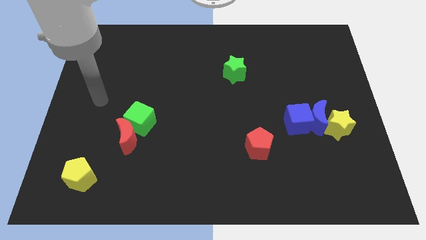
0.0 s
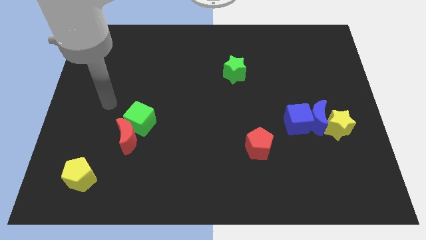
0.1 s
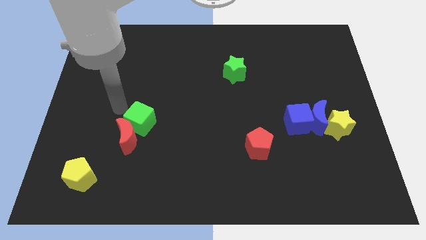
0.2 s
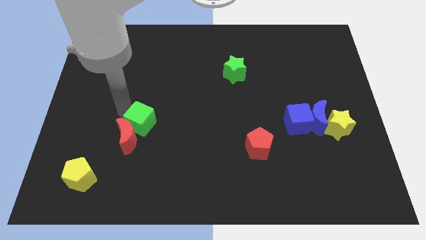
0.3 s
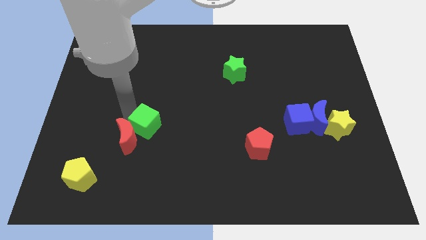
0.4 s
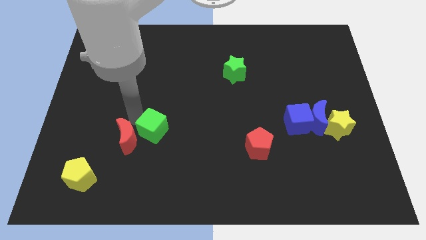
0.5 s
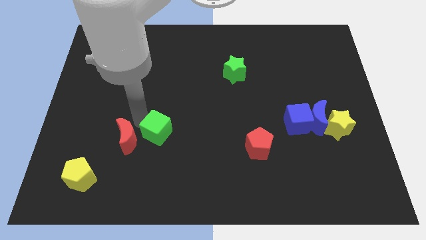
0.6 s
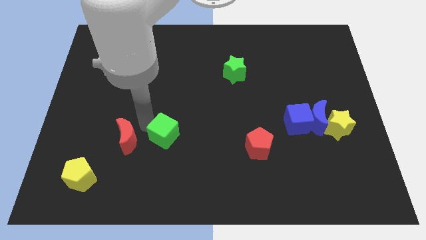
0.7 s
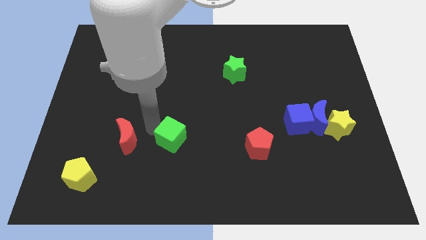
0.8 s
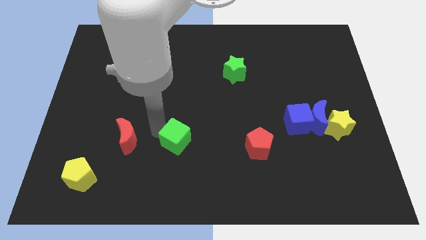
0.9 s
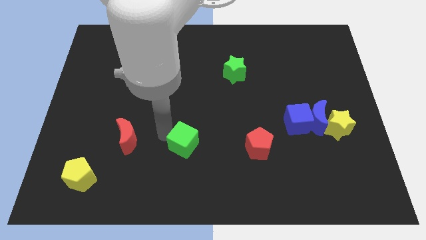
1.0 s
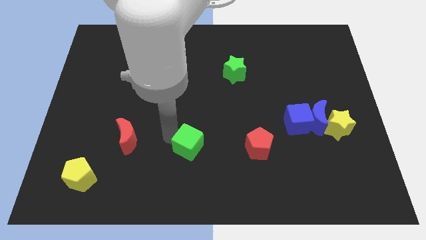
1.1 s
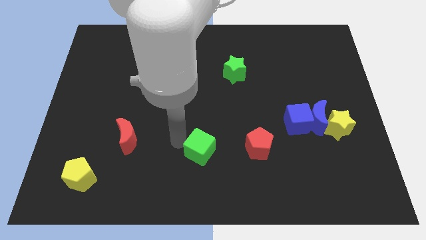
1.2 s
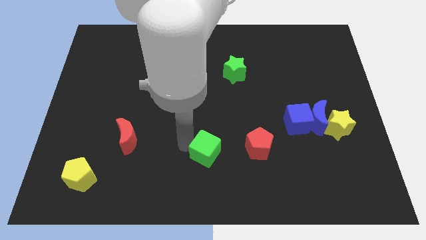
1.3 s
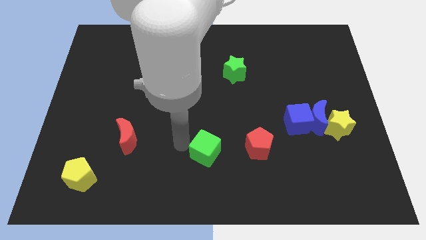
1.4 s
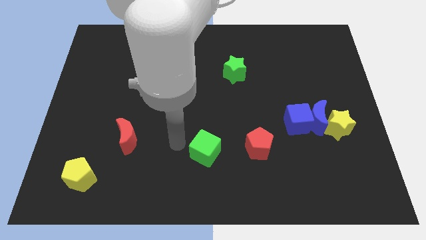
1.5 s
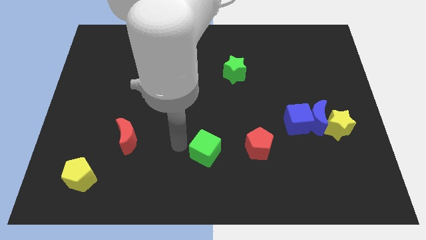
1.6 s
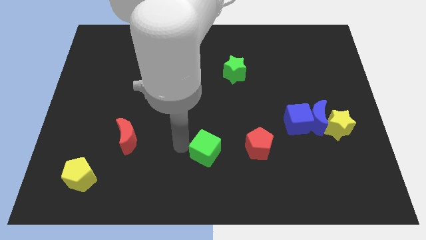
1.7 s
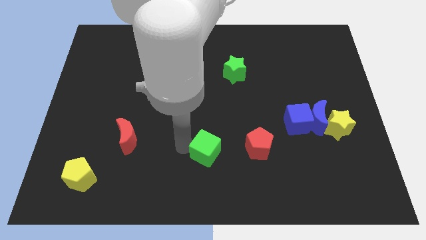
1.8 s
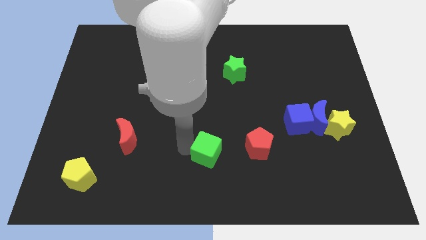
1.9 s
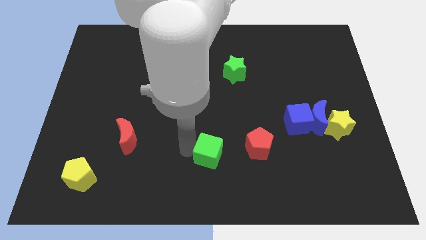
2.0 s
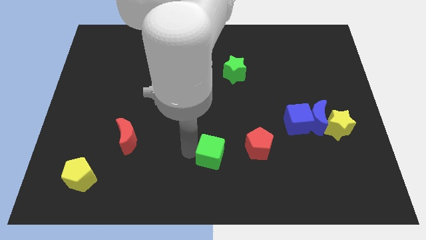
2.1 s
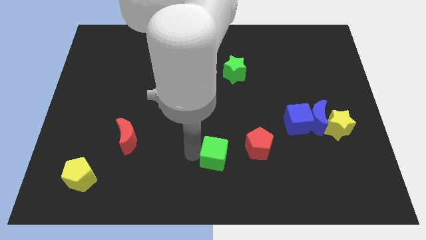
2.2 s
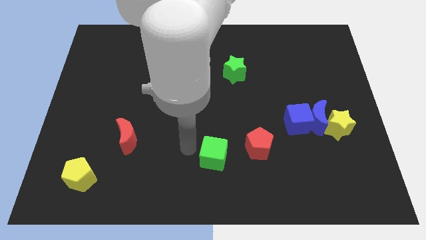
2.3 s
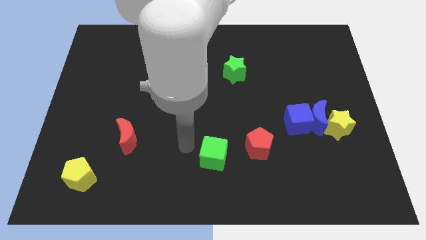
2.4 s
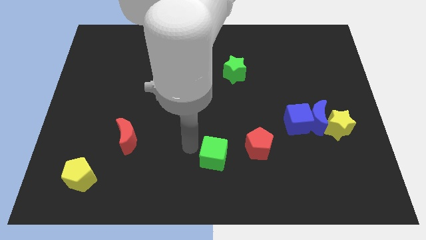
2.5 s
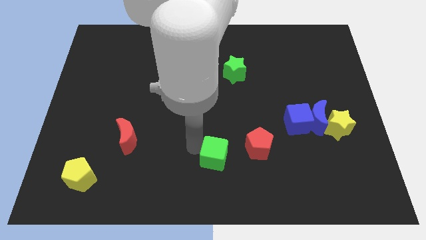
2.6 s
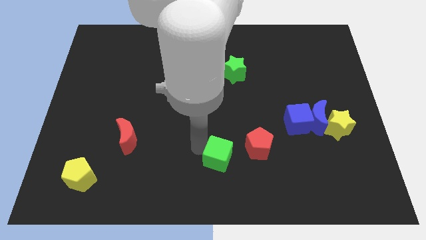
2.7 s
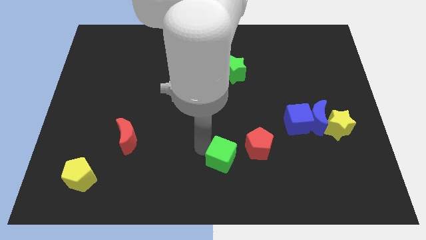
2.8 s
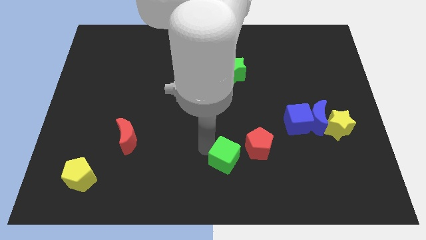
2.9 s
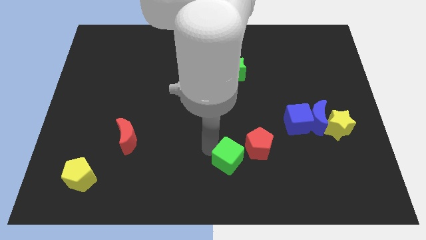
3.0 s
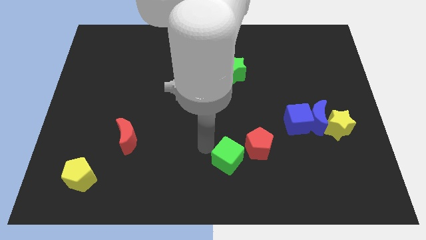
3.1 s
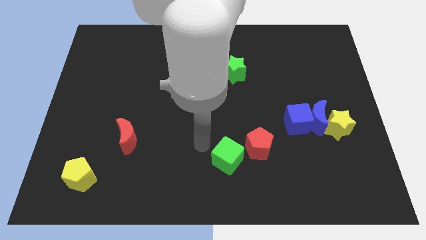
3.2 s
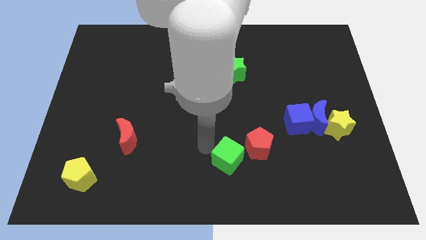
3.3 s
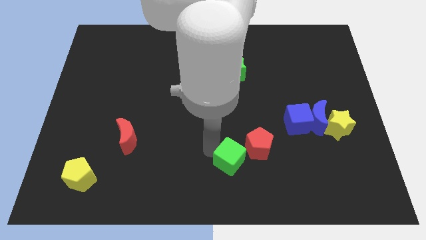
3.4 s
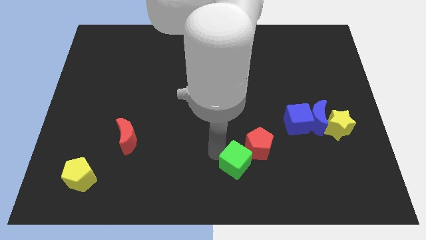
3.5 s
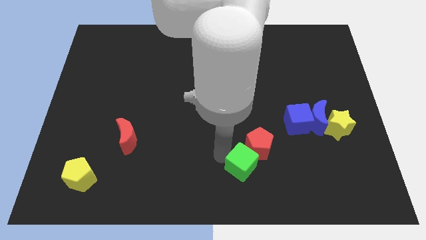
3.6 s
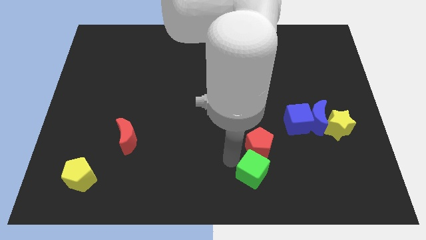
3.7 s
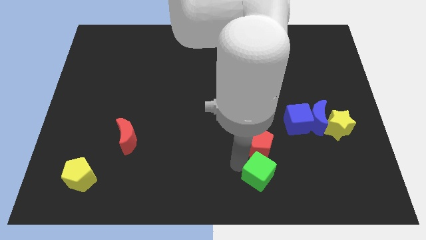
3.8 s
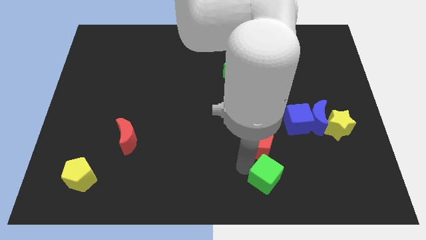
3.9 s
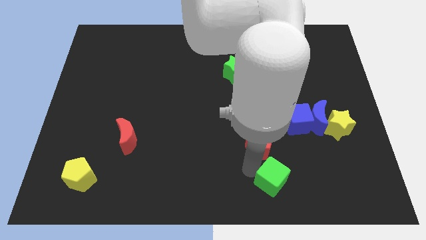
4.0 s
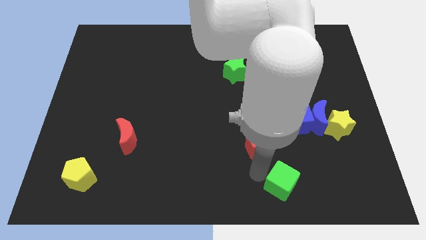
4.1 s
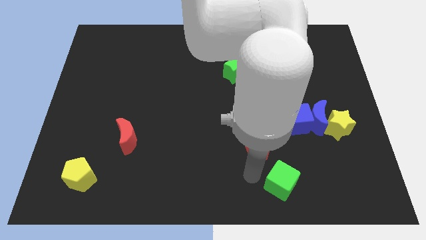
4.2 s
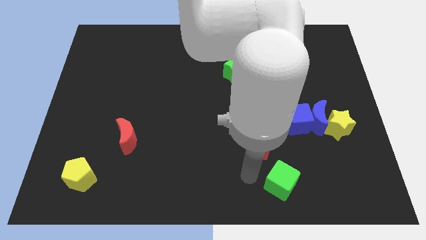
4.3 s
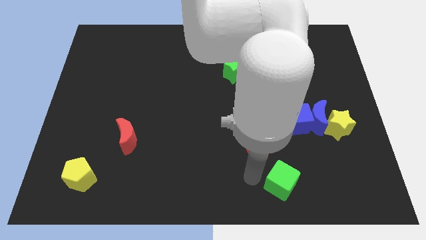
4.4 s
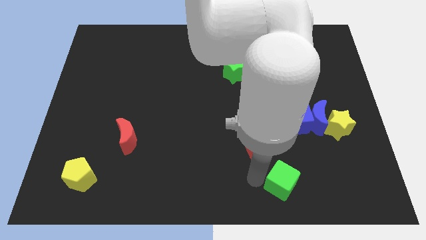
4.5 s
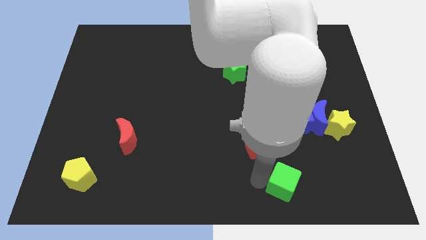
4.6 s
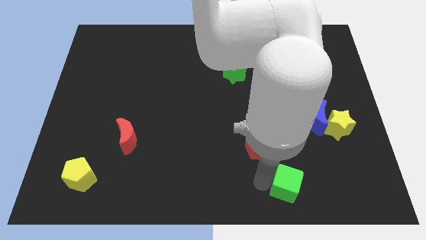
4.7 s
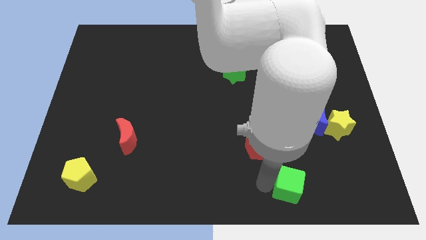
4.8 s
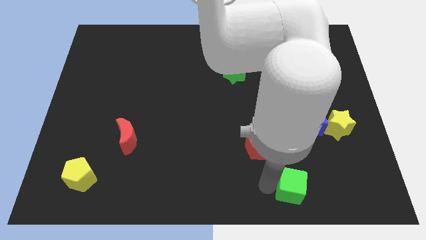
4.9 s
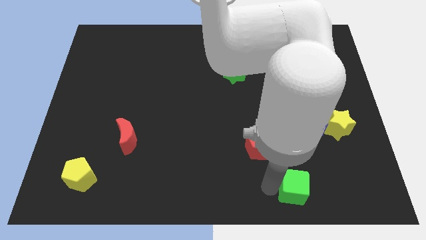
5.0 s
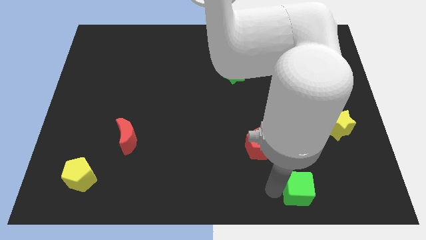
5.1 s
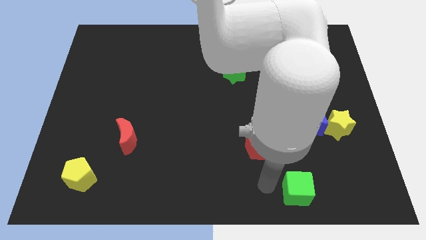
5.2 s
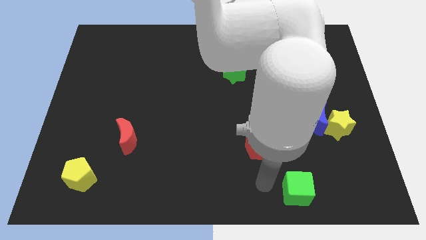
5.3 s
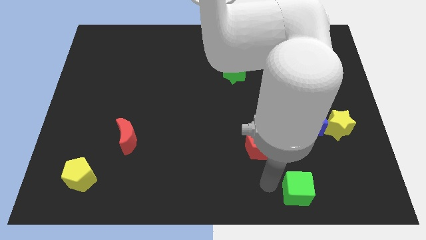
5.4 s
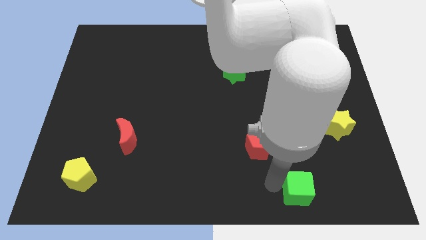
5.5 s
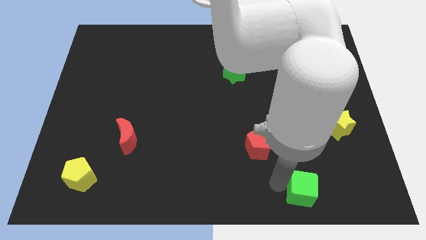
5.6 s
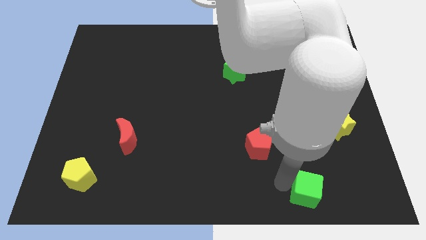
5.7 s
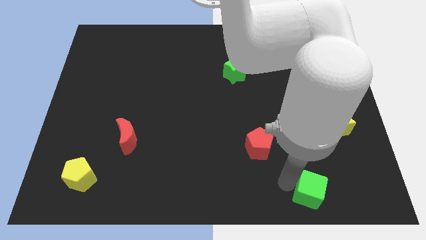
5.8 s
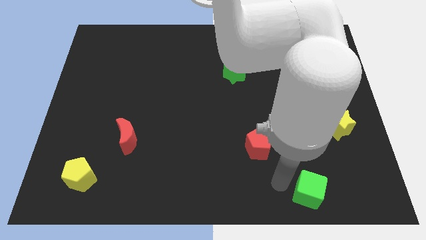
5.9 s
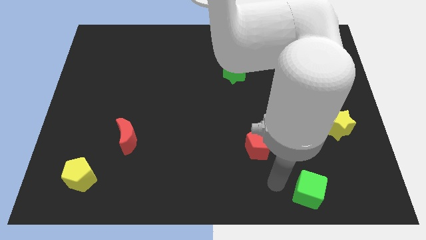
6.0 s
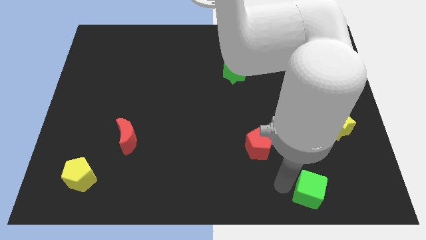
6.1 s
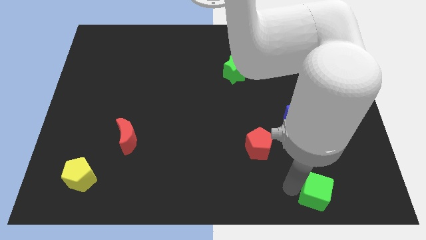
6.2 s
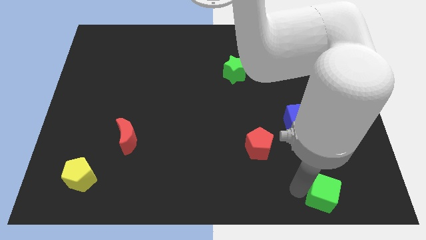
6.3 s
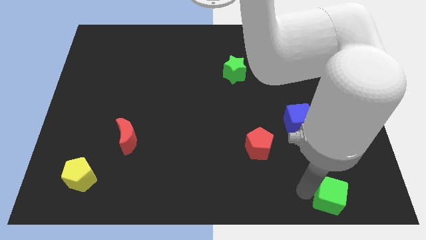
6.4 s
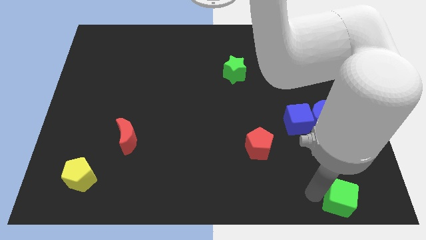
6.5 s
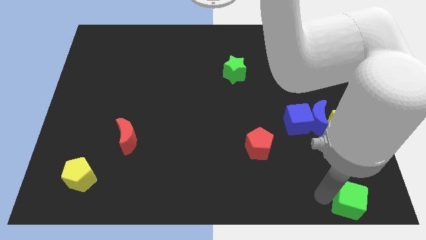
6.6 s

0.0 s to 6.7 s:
slide the green cube to the bottom right

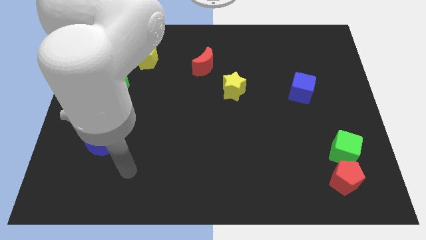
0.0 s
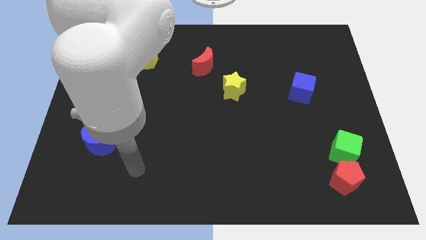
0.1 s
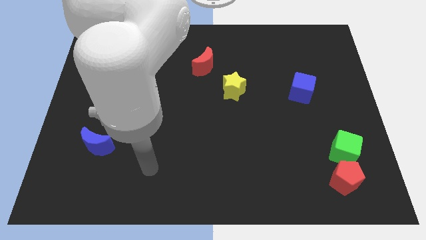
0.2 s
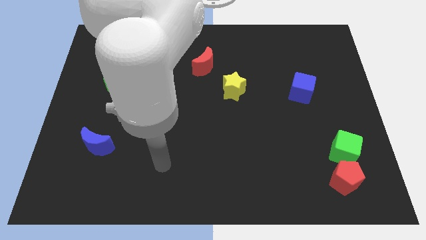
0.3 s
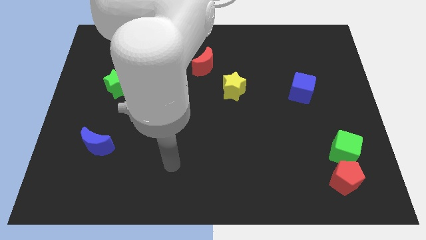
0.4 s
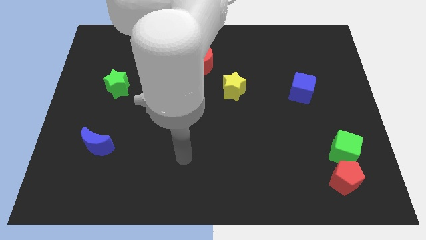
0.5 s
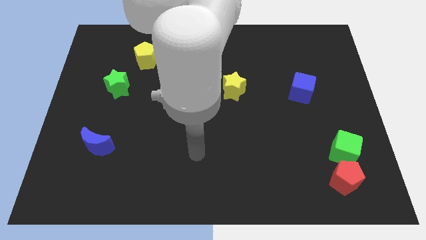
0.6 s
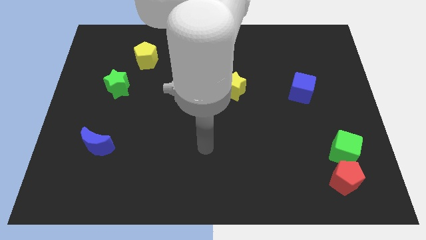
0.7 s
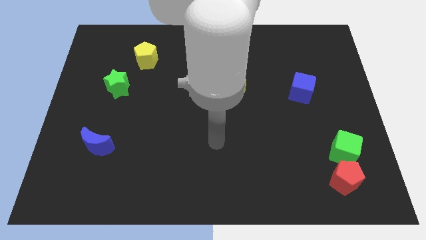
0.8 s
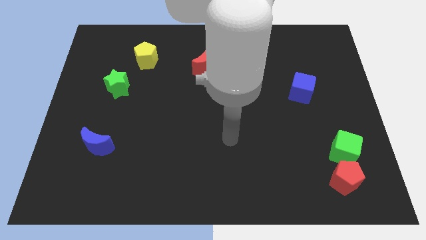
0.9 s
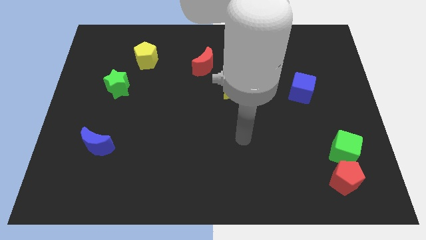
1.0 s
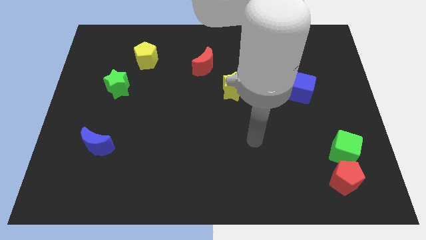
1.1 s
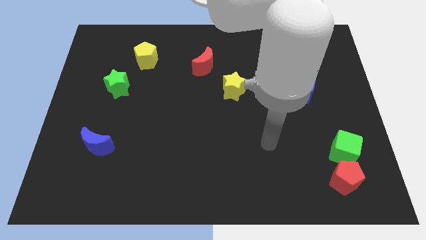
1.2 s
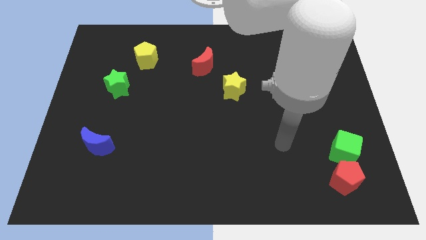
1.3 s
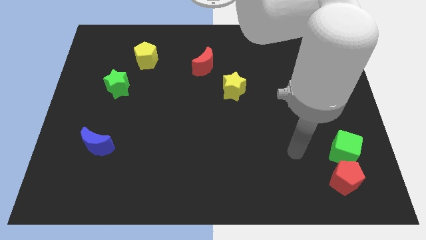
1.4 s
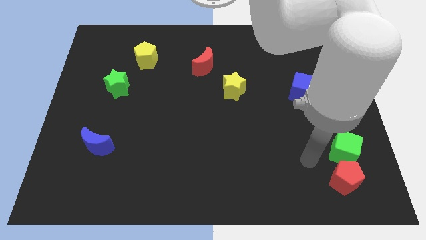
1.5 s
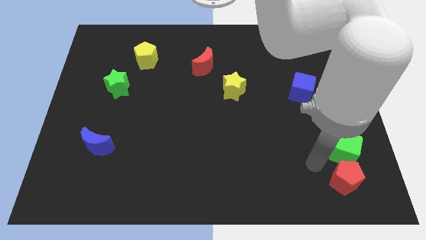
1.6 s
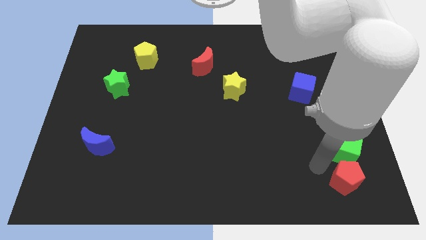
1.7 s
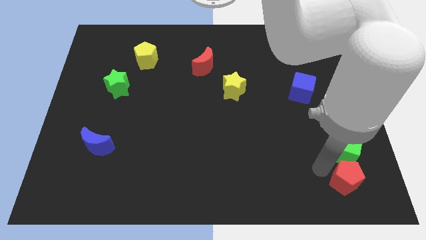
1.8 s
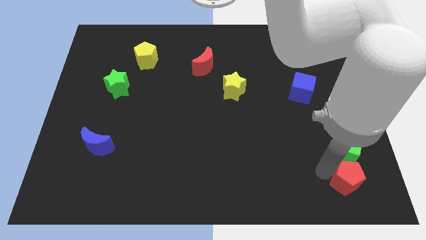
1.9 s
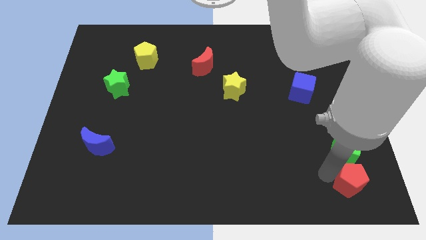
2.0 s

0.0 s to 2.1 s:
move the red pentagon to the bottom right of the board

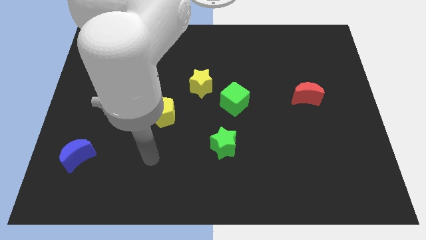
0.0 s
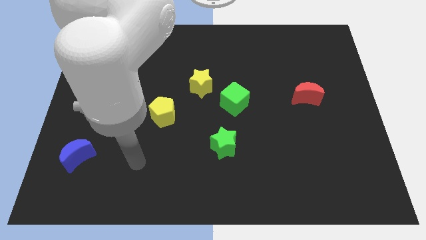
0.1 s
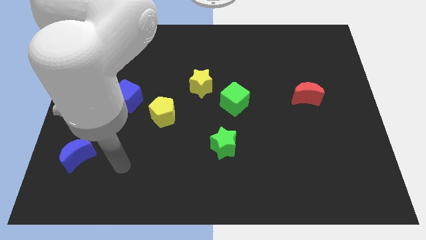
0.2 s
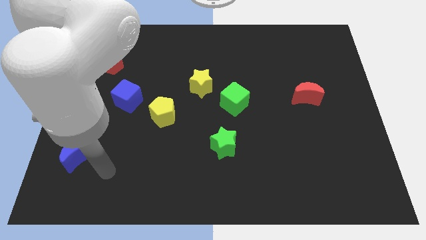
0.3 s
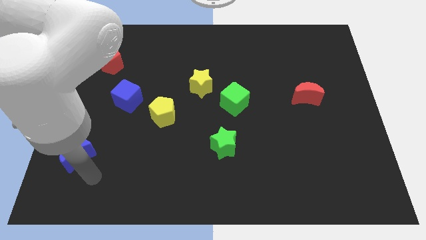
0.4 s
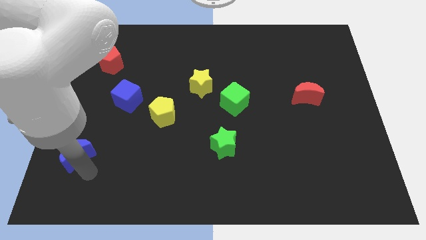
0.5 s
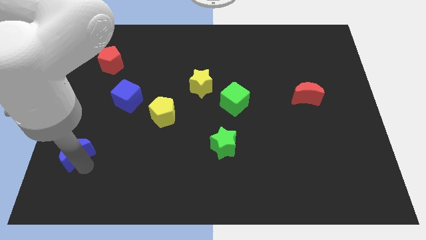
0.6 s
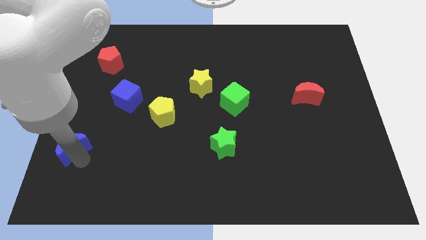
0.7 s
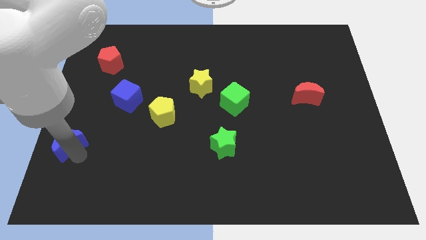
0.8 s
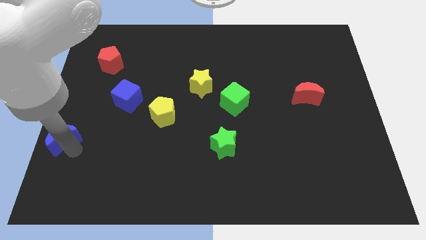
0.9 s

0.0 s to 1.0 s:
push the blue moon to the center left
